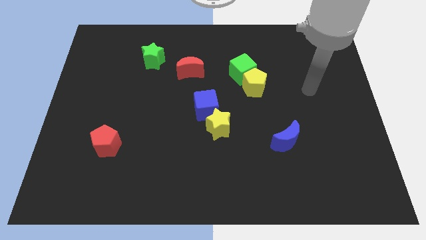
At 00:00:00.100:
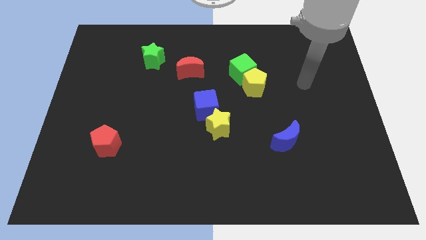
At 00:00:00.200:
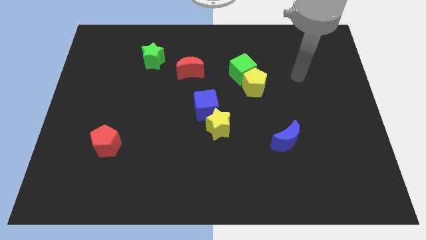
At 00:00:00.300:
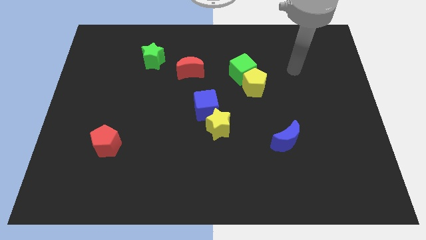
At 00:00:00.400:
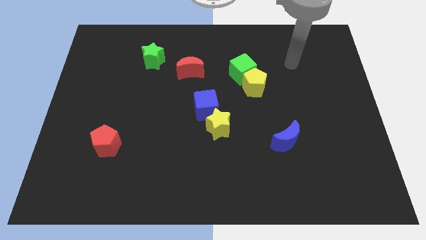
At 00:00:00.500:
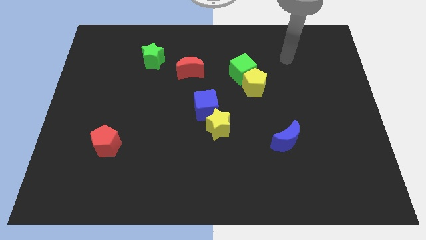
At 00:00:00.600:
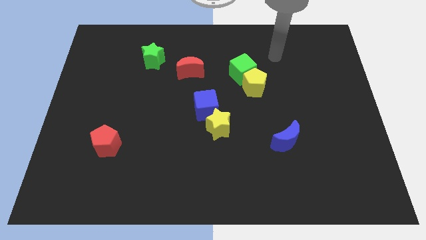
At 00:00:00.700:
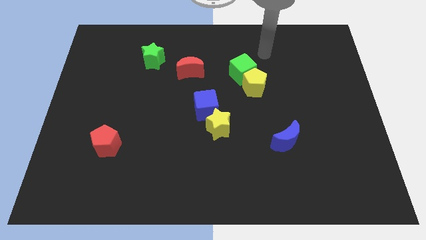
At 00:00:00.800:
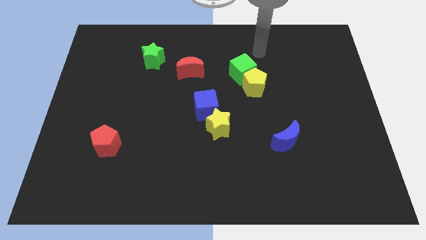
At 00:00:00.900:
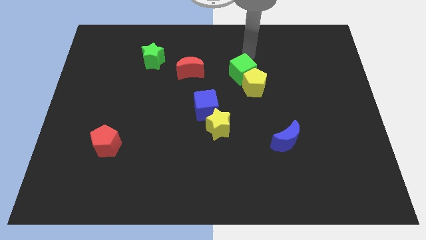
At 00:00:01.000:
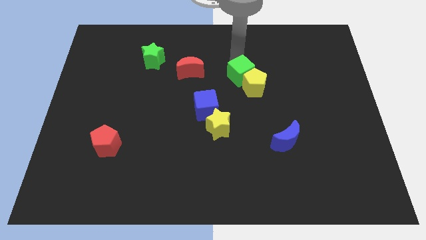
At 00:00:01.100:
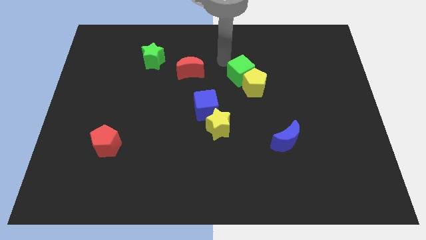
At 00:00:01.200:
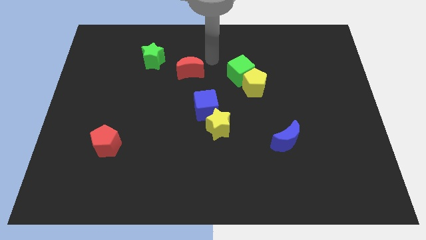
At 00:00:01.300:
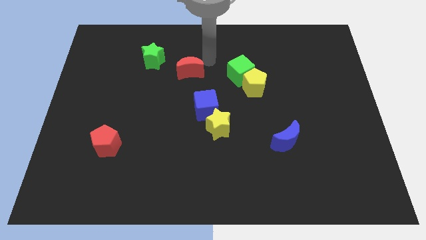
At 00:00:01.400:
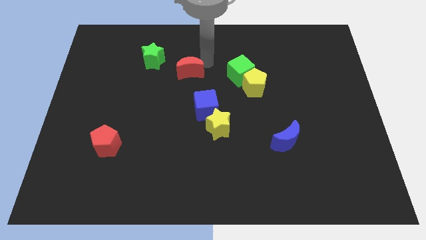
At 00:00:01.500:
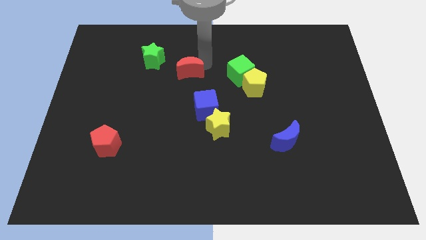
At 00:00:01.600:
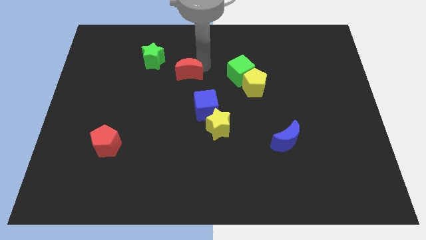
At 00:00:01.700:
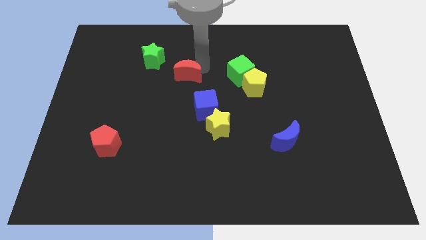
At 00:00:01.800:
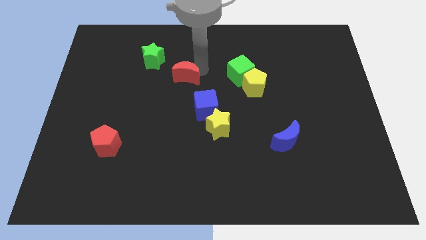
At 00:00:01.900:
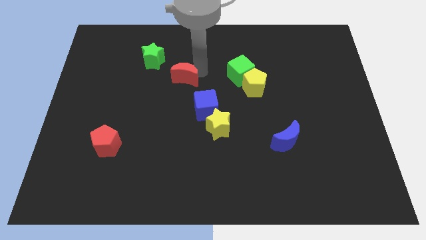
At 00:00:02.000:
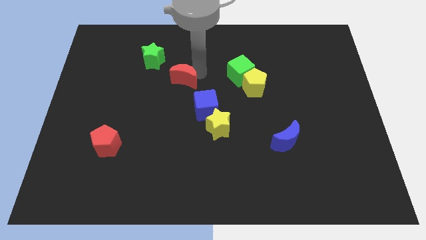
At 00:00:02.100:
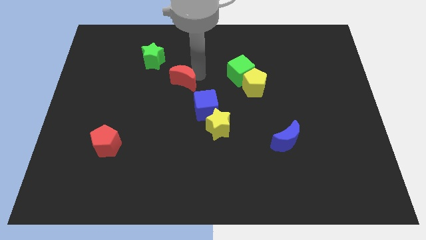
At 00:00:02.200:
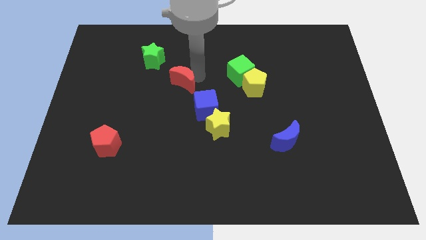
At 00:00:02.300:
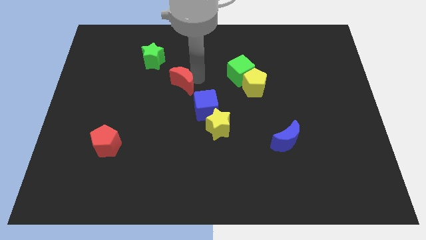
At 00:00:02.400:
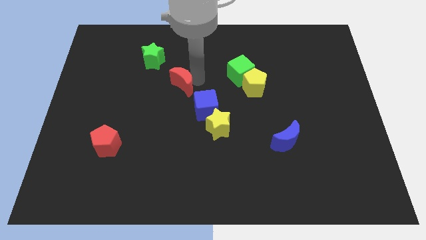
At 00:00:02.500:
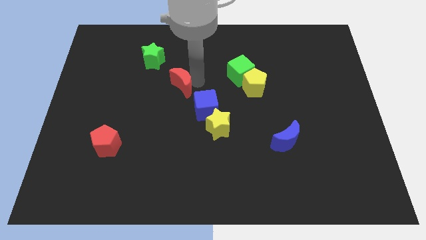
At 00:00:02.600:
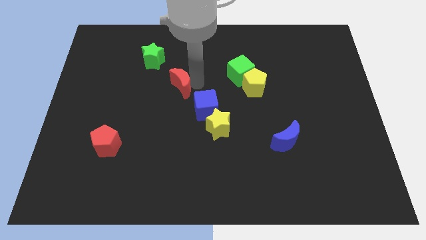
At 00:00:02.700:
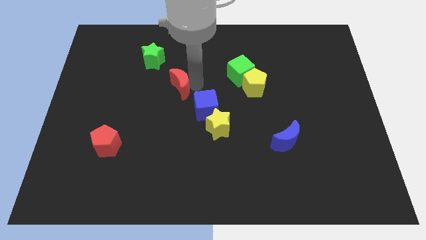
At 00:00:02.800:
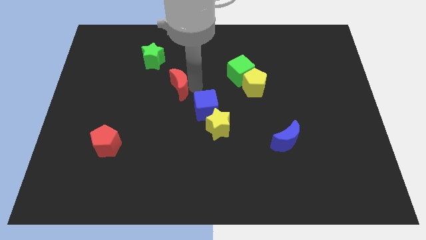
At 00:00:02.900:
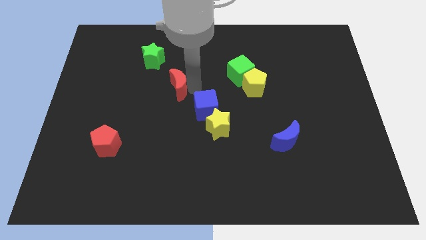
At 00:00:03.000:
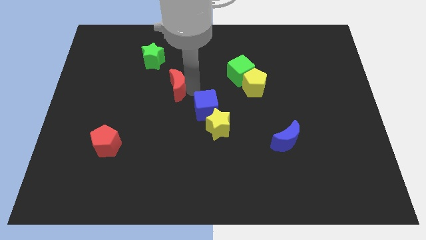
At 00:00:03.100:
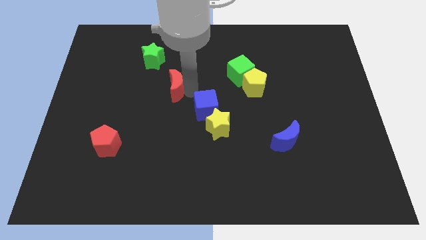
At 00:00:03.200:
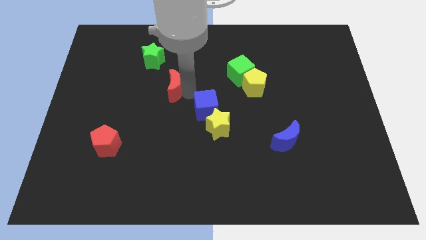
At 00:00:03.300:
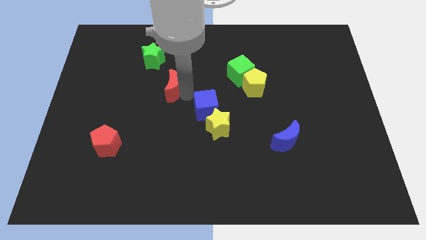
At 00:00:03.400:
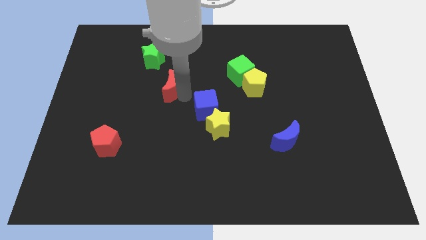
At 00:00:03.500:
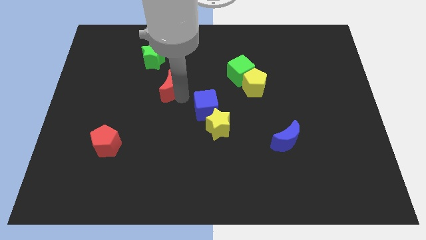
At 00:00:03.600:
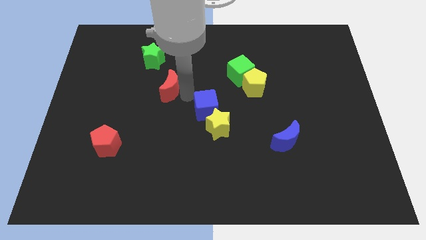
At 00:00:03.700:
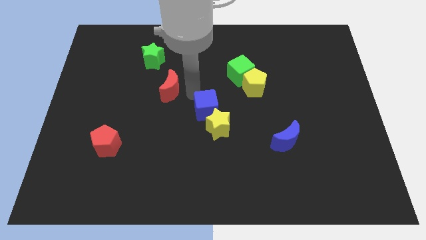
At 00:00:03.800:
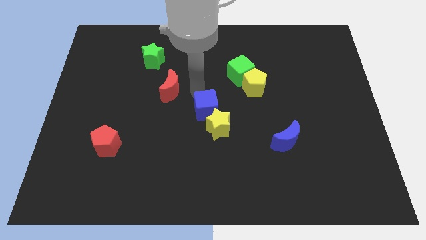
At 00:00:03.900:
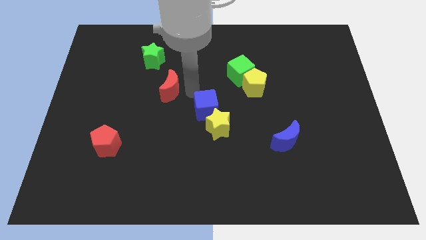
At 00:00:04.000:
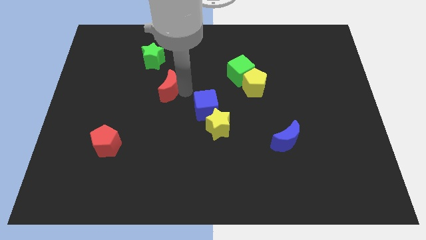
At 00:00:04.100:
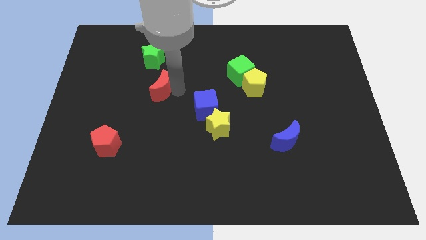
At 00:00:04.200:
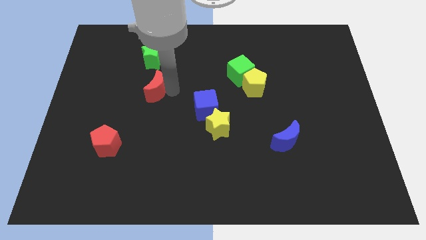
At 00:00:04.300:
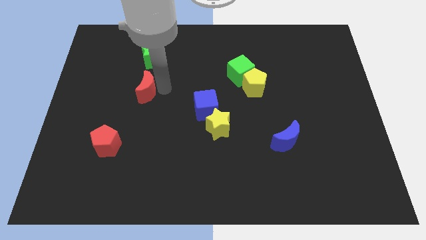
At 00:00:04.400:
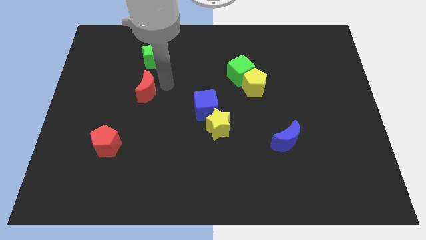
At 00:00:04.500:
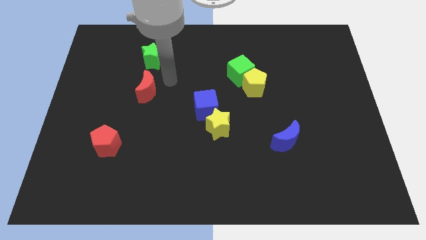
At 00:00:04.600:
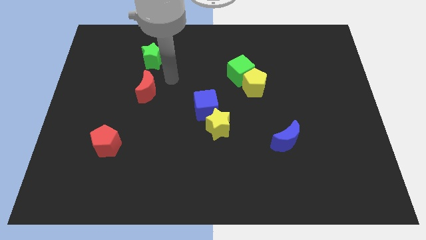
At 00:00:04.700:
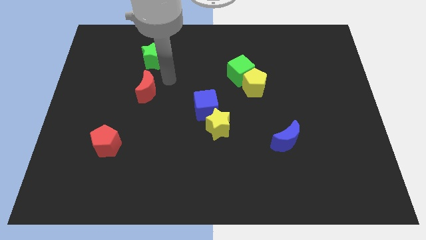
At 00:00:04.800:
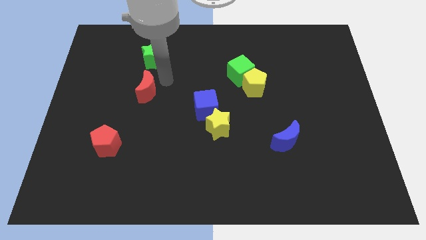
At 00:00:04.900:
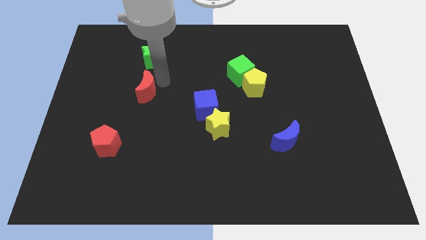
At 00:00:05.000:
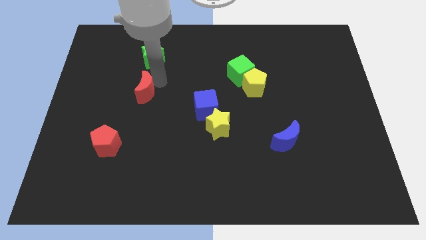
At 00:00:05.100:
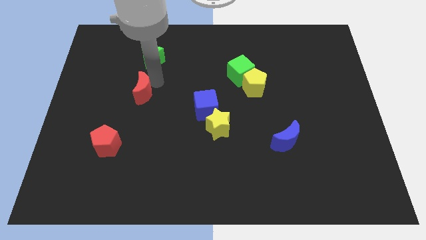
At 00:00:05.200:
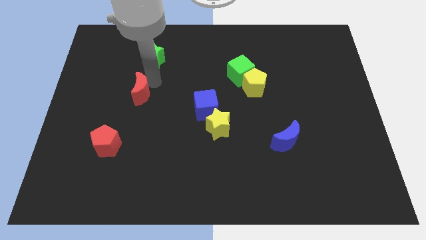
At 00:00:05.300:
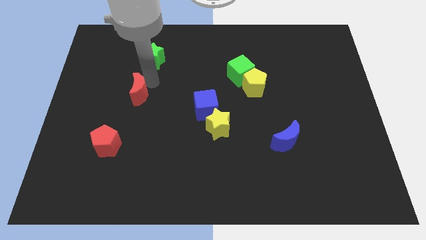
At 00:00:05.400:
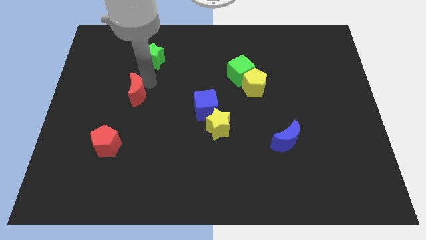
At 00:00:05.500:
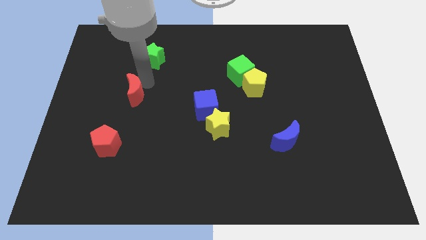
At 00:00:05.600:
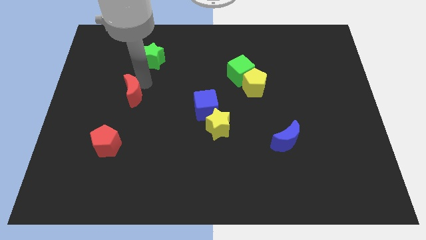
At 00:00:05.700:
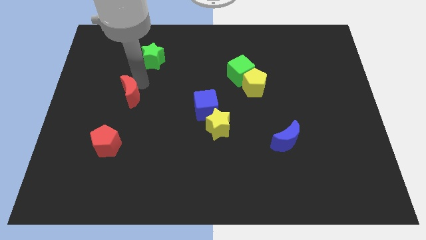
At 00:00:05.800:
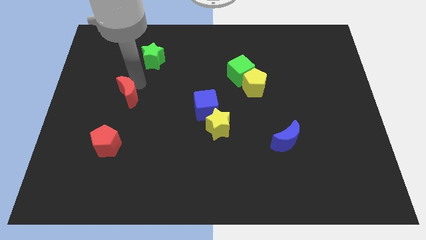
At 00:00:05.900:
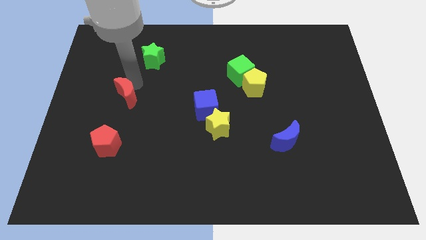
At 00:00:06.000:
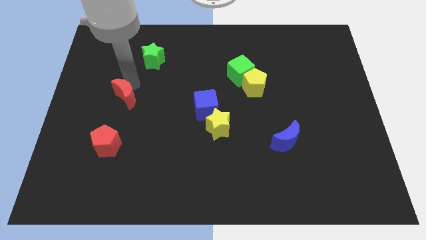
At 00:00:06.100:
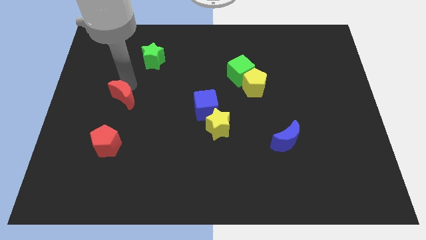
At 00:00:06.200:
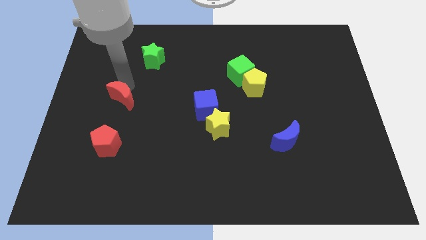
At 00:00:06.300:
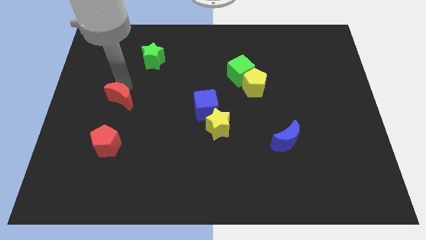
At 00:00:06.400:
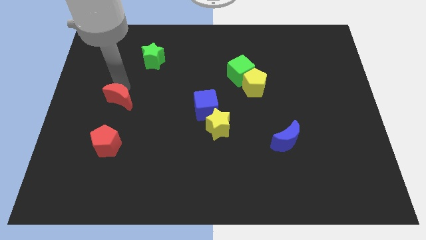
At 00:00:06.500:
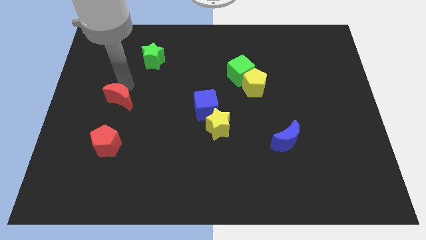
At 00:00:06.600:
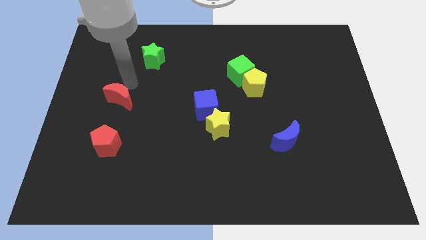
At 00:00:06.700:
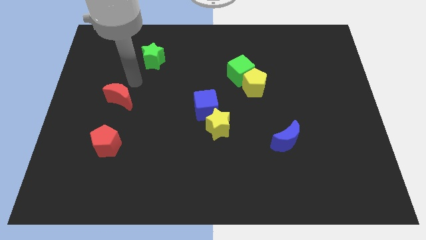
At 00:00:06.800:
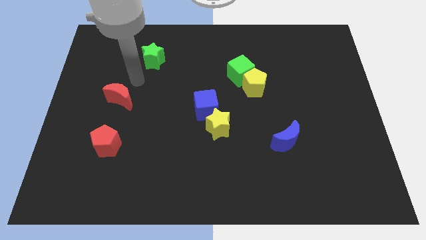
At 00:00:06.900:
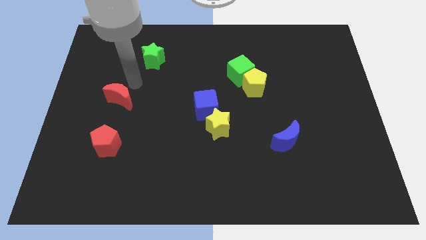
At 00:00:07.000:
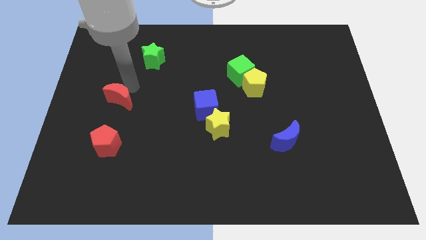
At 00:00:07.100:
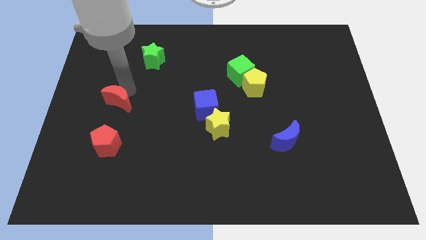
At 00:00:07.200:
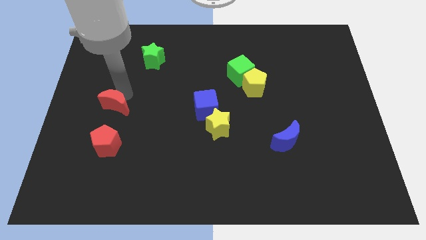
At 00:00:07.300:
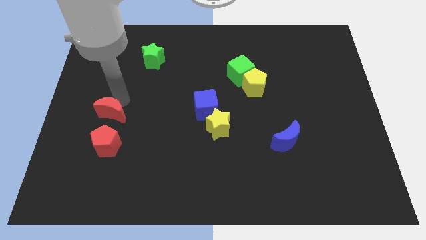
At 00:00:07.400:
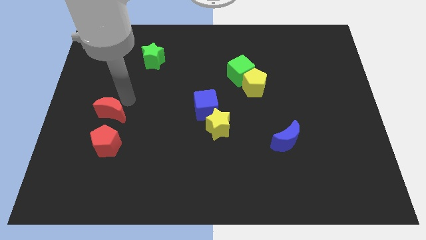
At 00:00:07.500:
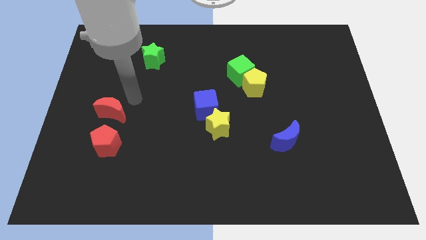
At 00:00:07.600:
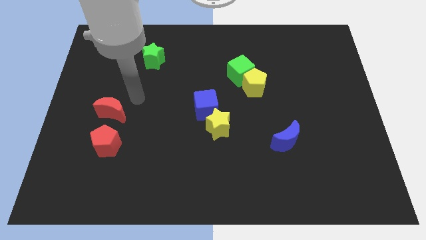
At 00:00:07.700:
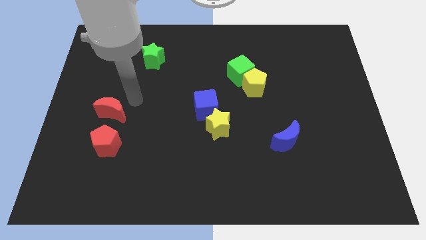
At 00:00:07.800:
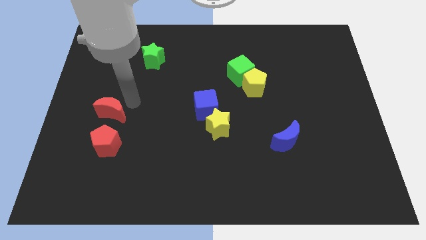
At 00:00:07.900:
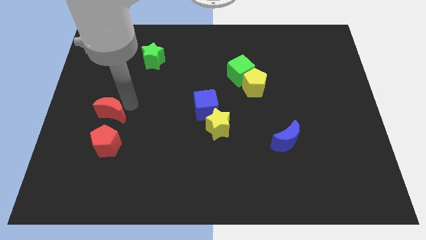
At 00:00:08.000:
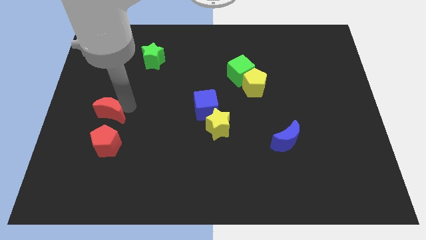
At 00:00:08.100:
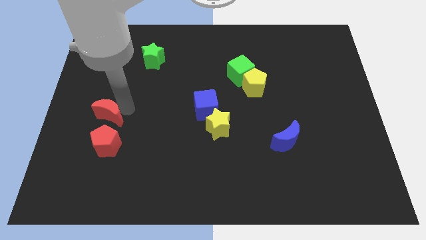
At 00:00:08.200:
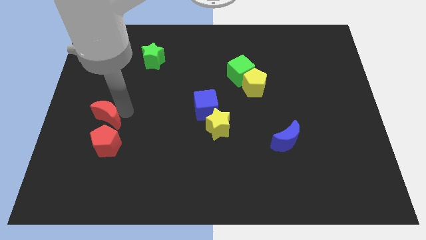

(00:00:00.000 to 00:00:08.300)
push the red moon diagonally up and to the left of the red pentagon
